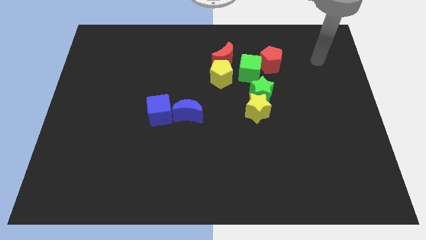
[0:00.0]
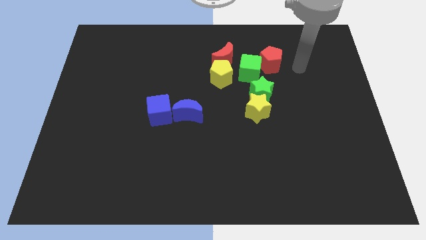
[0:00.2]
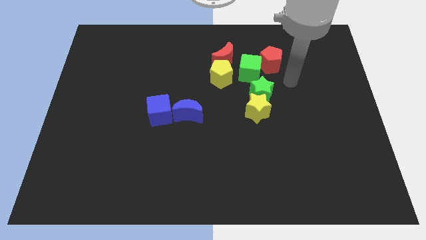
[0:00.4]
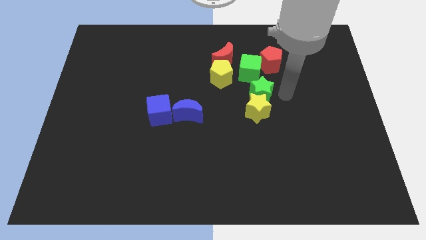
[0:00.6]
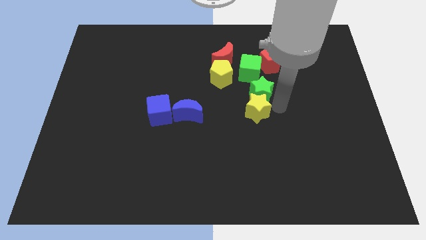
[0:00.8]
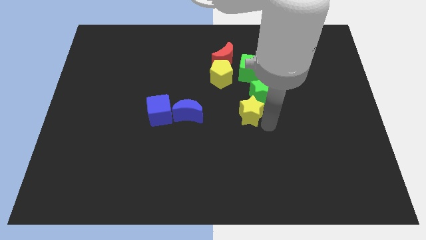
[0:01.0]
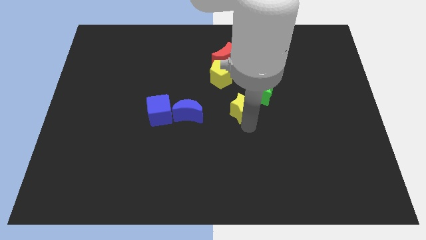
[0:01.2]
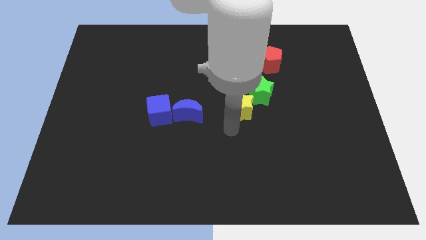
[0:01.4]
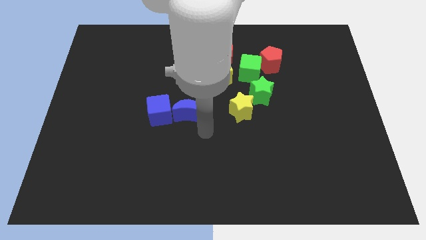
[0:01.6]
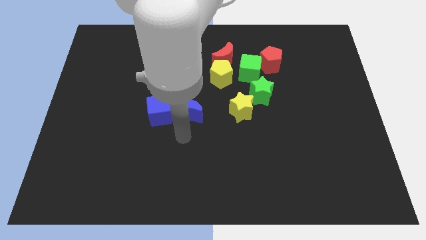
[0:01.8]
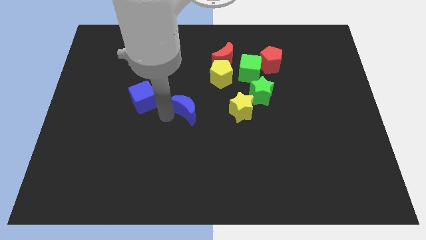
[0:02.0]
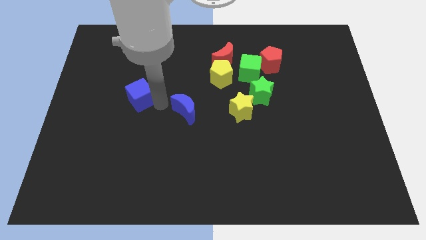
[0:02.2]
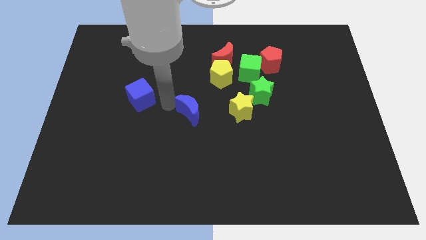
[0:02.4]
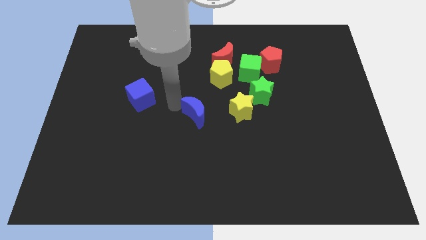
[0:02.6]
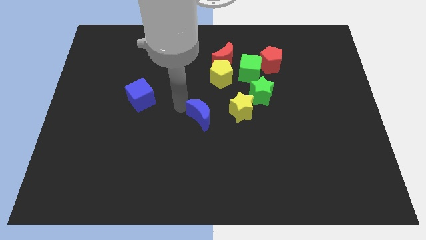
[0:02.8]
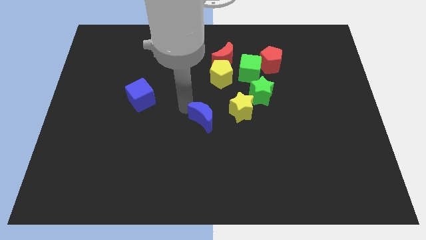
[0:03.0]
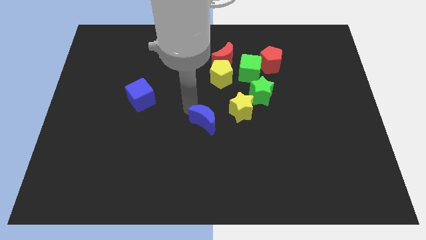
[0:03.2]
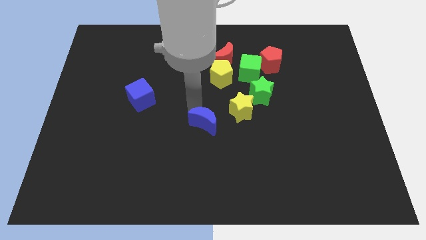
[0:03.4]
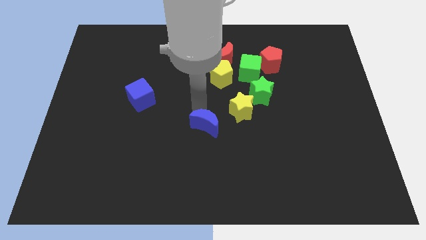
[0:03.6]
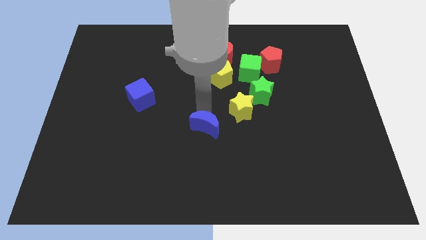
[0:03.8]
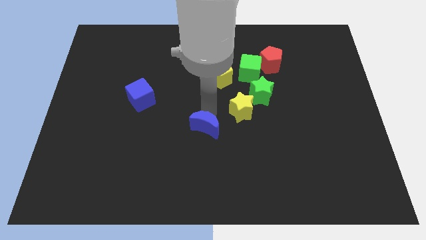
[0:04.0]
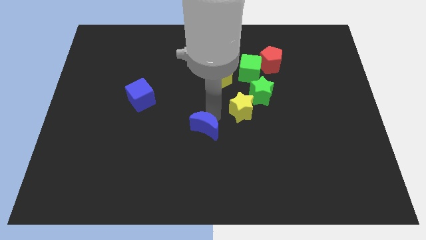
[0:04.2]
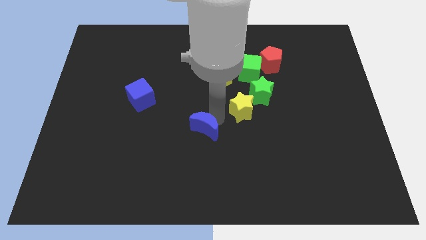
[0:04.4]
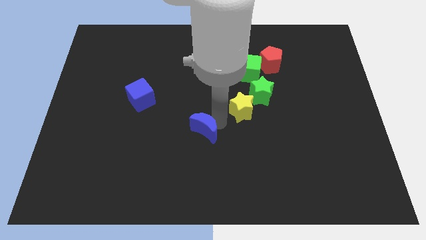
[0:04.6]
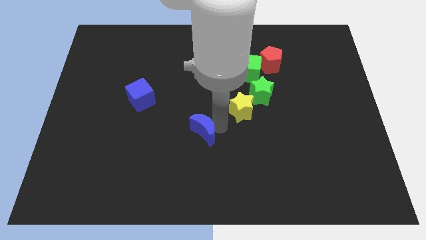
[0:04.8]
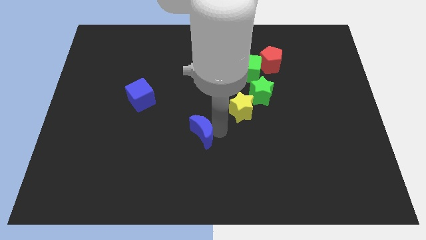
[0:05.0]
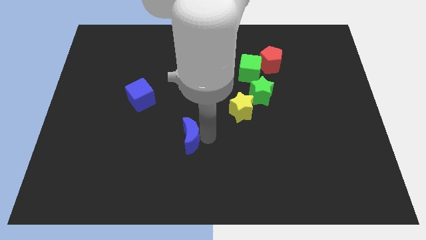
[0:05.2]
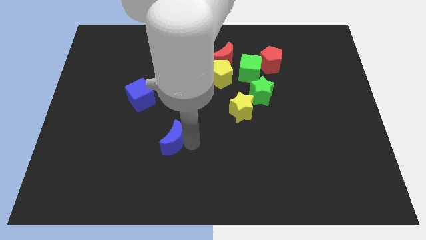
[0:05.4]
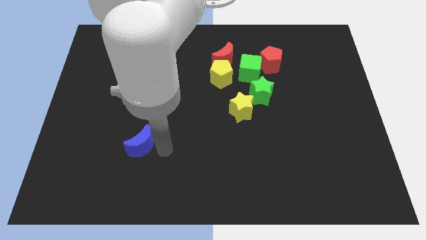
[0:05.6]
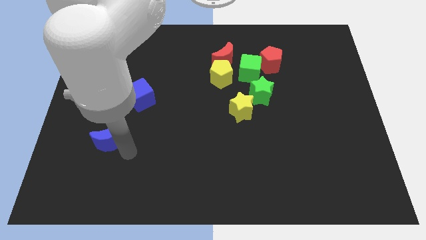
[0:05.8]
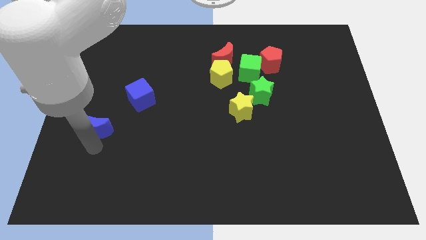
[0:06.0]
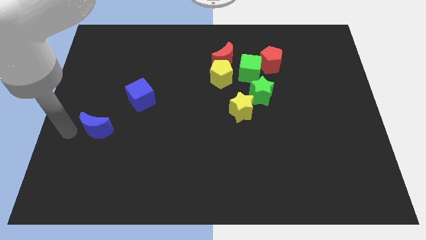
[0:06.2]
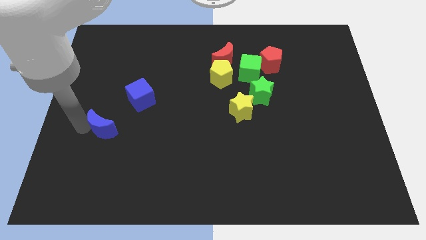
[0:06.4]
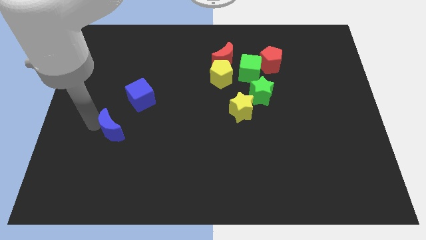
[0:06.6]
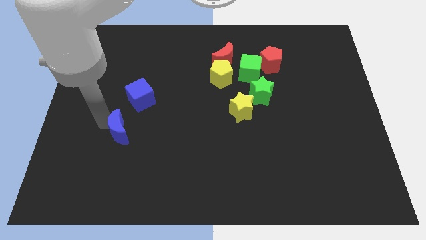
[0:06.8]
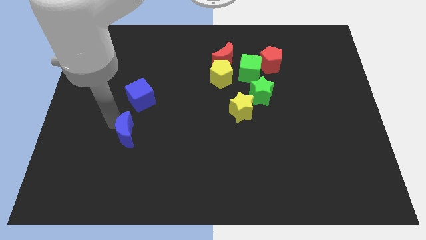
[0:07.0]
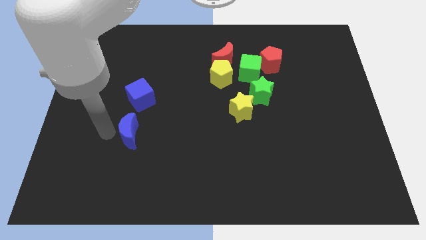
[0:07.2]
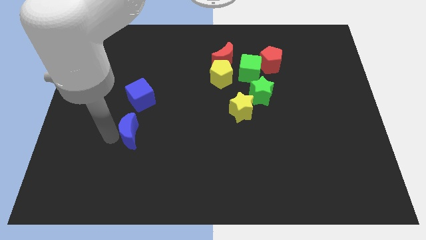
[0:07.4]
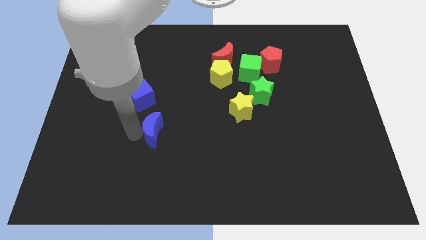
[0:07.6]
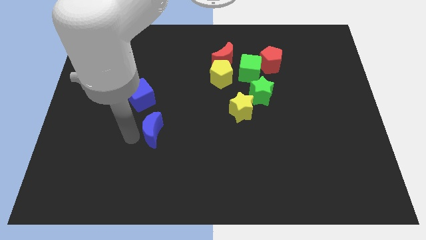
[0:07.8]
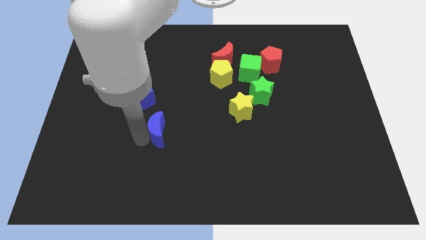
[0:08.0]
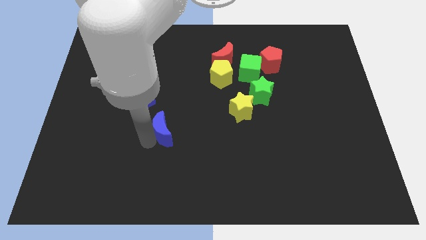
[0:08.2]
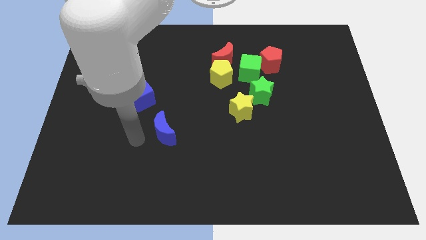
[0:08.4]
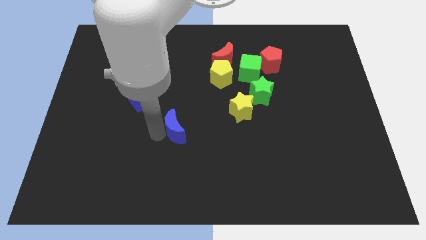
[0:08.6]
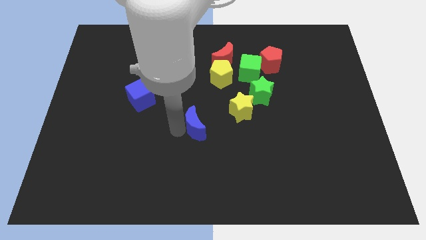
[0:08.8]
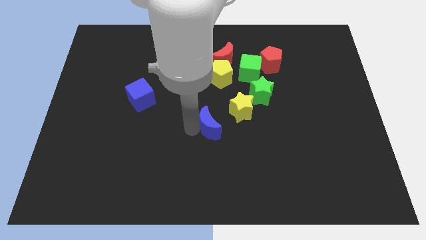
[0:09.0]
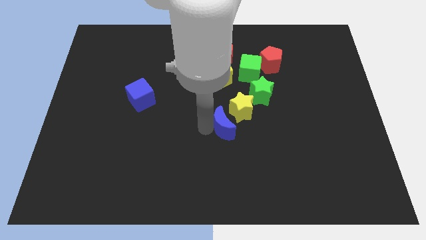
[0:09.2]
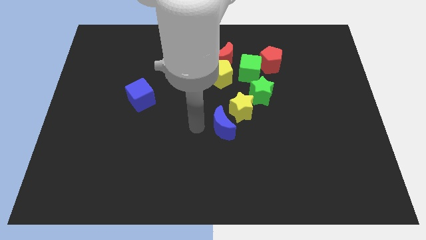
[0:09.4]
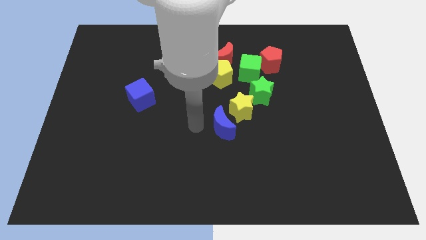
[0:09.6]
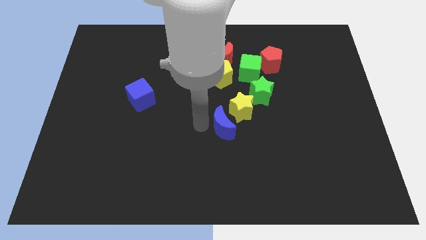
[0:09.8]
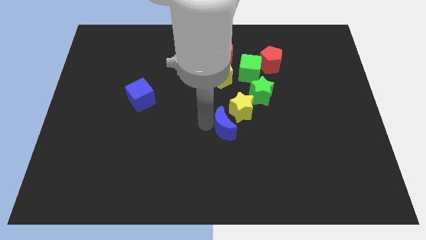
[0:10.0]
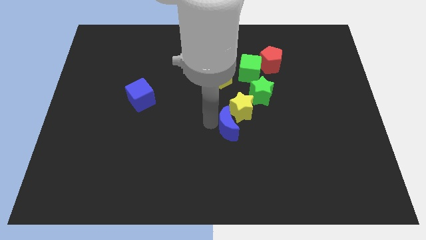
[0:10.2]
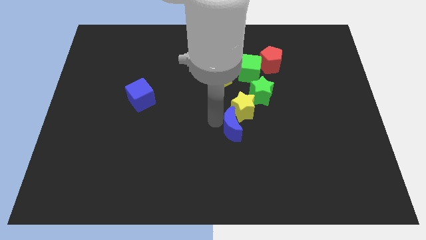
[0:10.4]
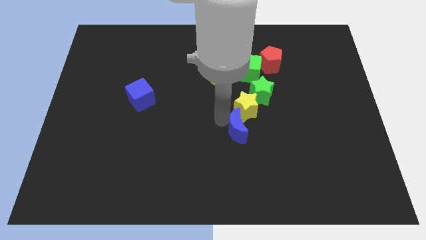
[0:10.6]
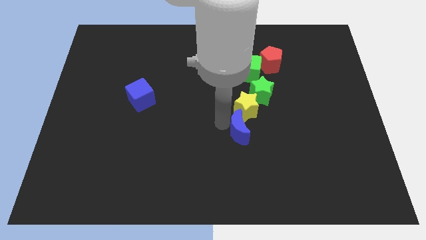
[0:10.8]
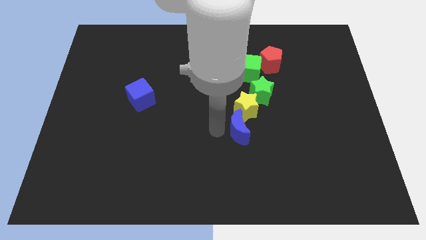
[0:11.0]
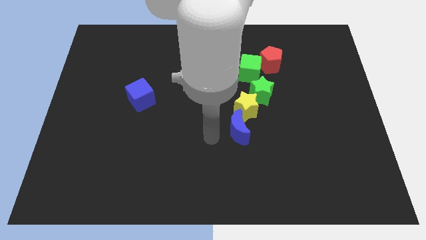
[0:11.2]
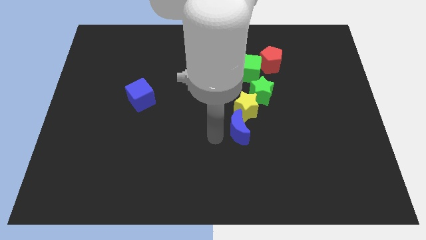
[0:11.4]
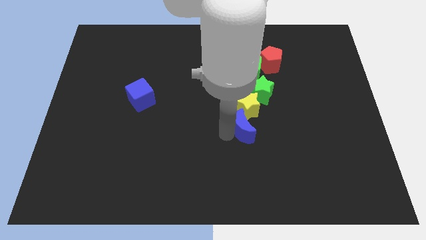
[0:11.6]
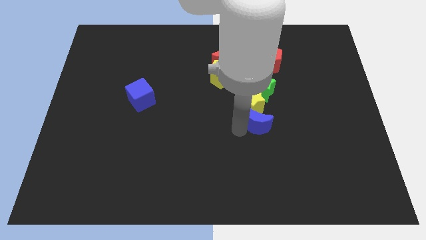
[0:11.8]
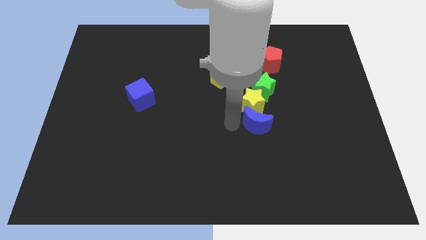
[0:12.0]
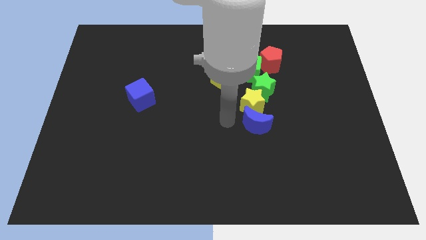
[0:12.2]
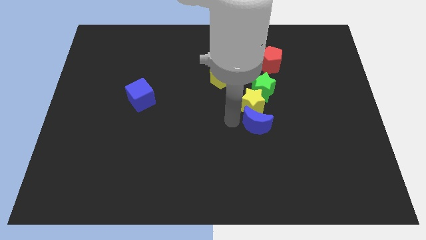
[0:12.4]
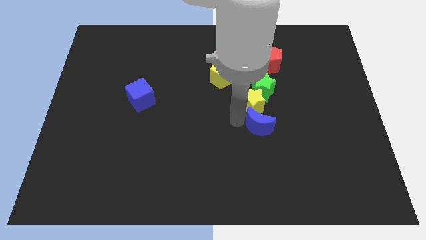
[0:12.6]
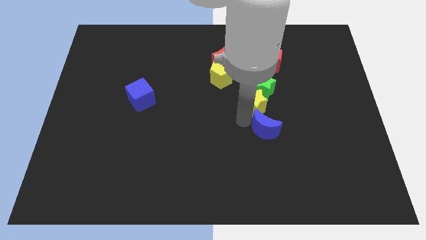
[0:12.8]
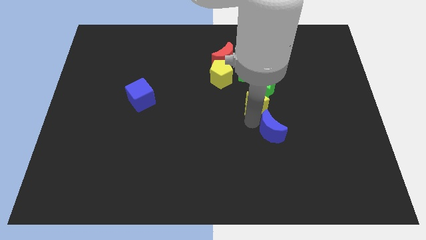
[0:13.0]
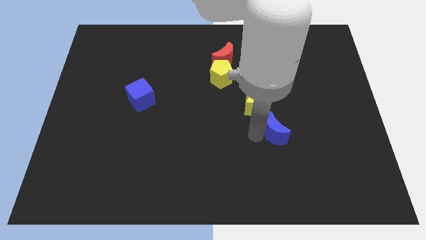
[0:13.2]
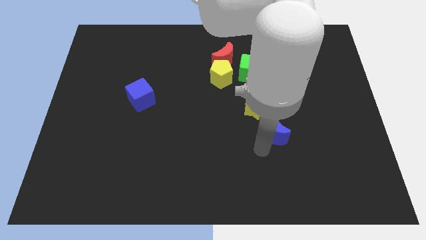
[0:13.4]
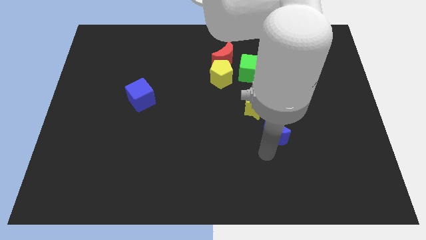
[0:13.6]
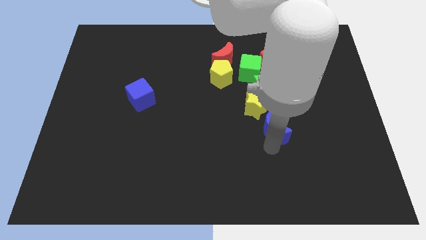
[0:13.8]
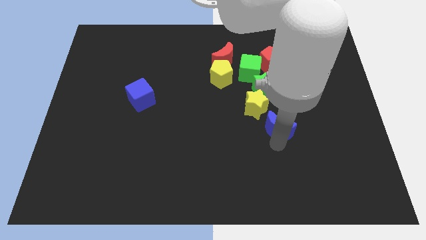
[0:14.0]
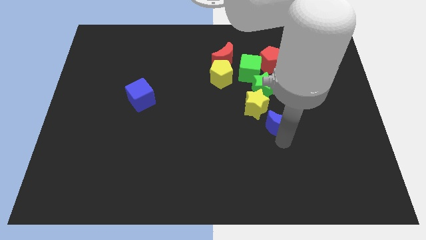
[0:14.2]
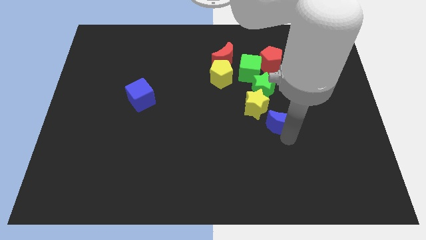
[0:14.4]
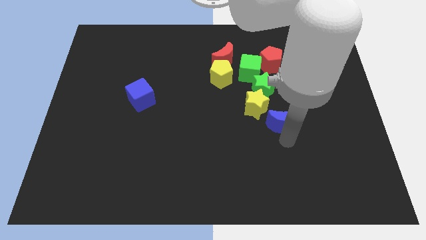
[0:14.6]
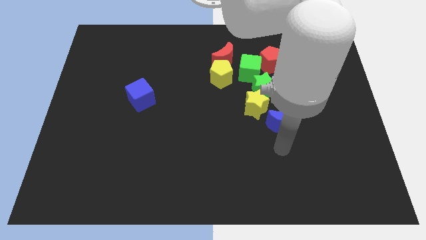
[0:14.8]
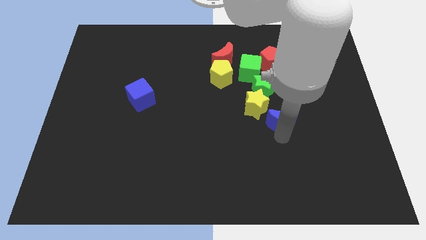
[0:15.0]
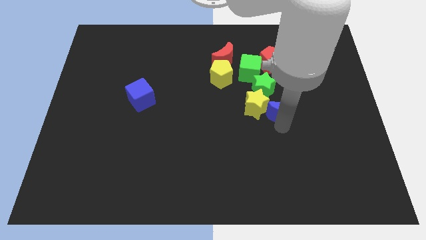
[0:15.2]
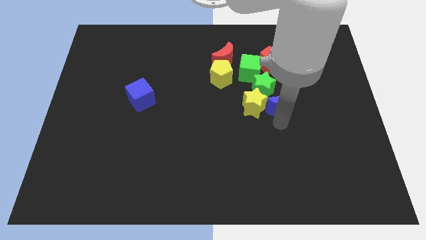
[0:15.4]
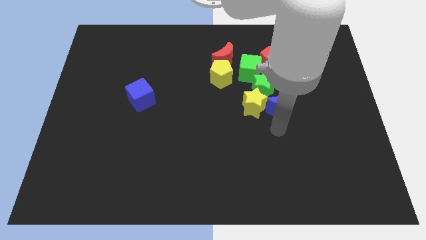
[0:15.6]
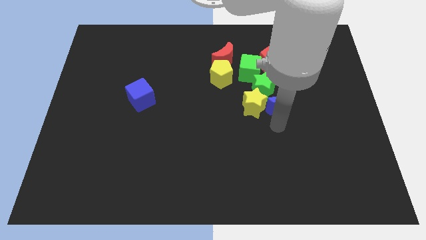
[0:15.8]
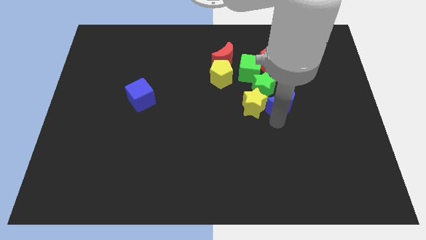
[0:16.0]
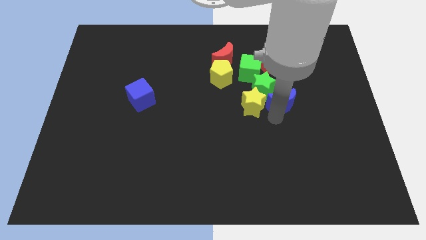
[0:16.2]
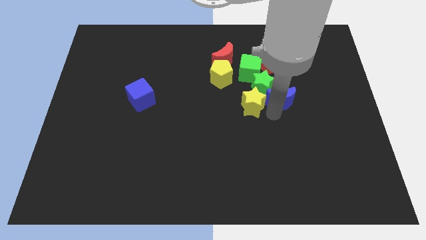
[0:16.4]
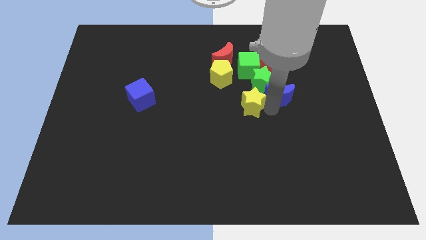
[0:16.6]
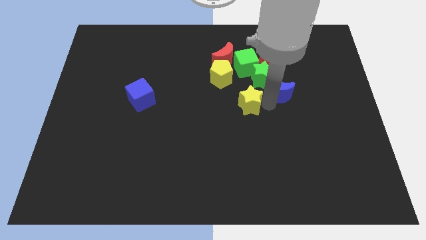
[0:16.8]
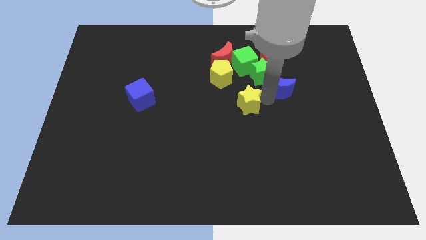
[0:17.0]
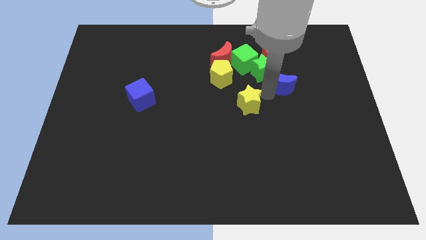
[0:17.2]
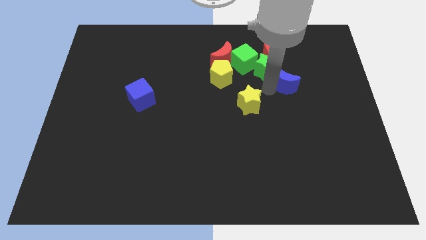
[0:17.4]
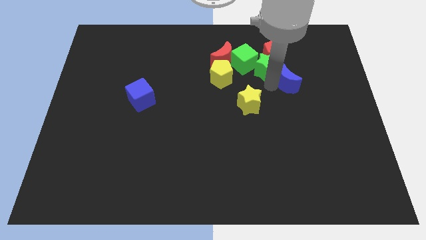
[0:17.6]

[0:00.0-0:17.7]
put the blue moon to the bottom right side of the red pentagon
